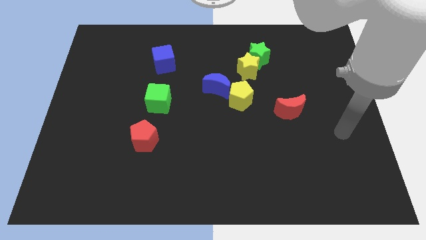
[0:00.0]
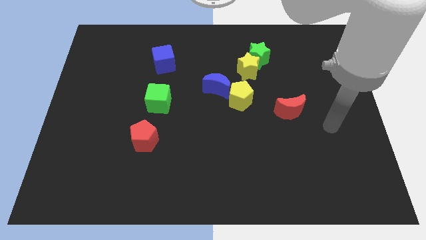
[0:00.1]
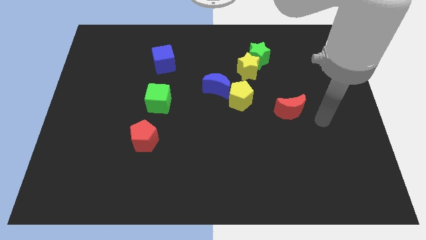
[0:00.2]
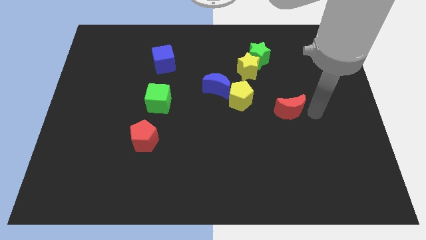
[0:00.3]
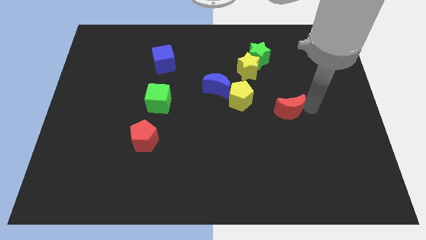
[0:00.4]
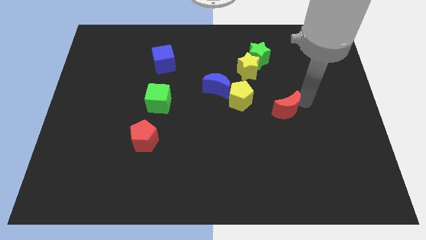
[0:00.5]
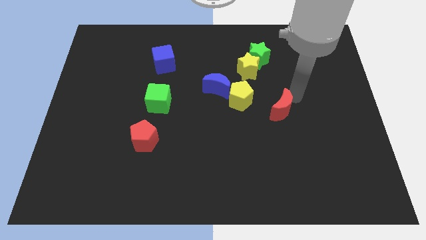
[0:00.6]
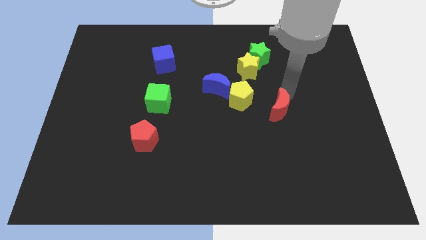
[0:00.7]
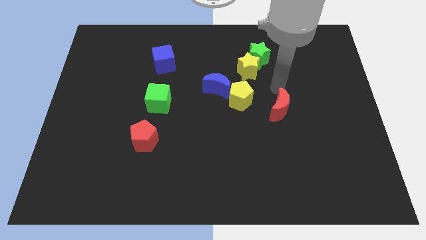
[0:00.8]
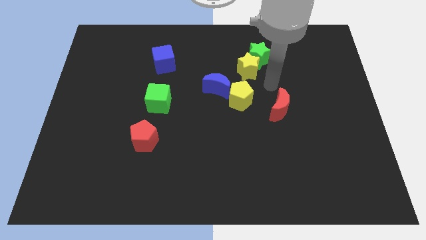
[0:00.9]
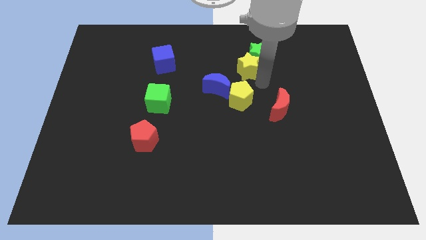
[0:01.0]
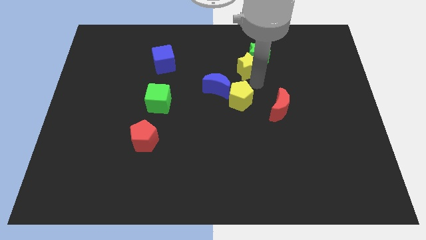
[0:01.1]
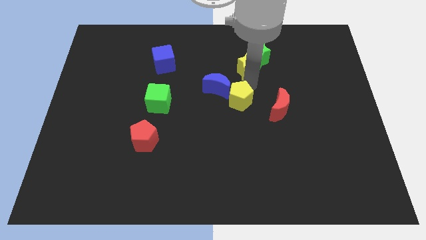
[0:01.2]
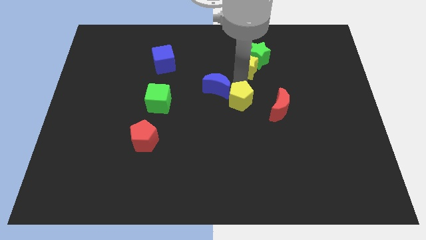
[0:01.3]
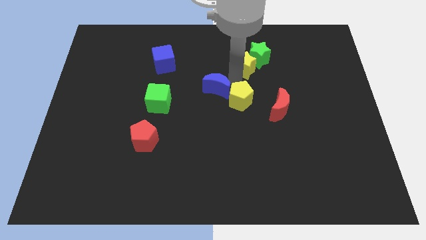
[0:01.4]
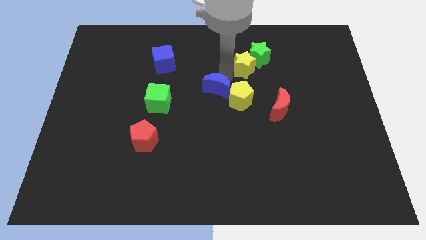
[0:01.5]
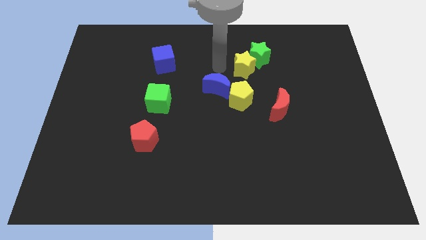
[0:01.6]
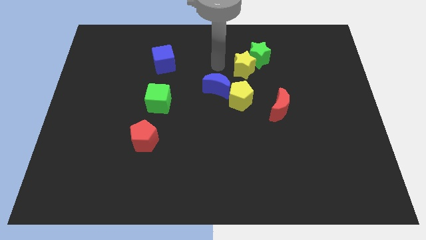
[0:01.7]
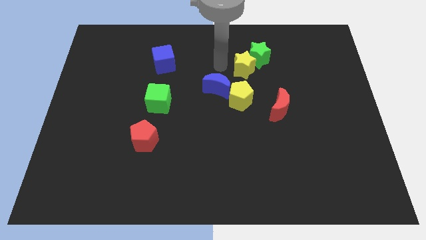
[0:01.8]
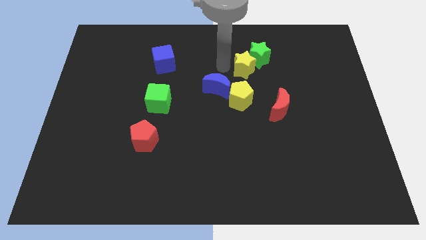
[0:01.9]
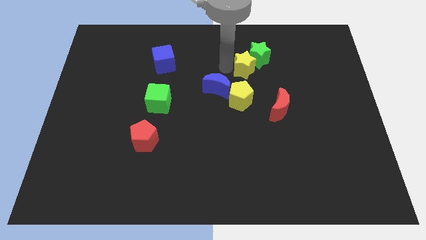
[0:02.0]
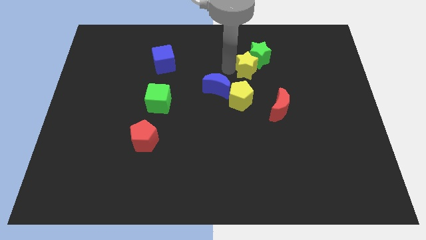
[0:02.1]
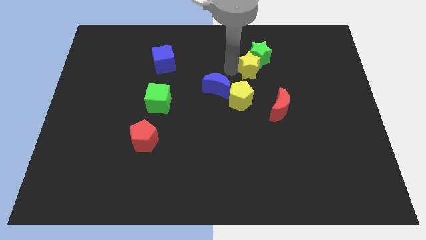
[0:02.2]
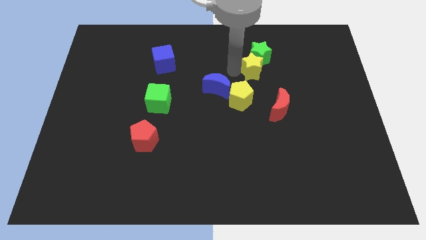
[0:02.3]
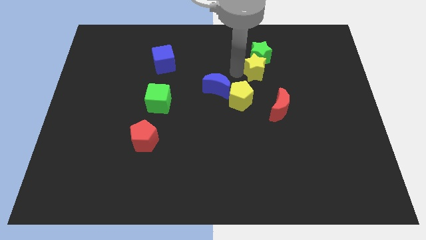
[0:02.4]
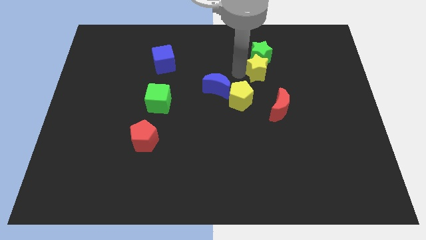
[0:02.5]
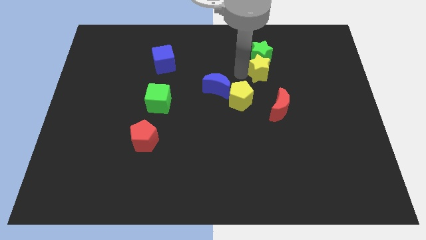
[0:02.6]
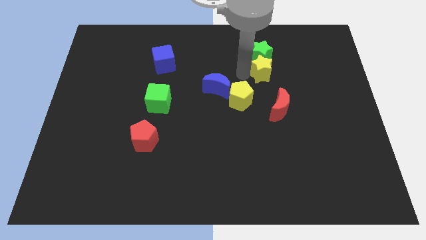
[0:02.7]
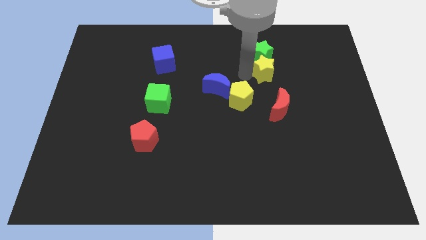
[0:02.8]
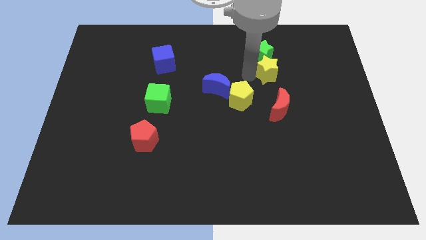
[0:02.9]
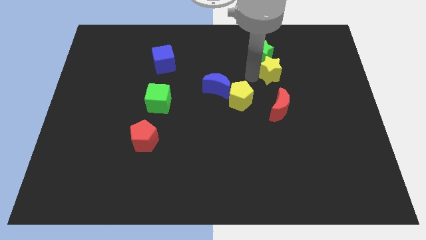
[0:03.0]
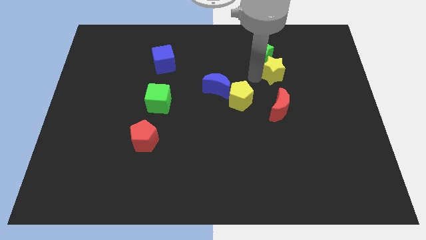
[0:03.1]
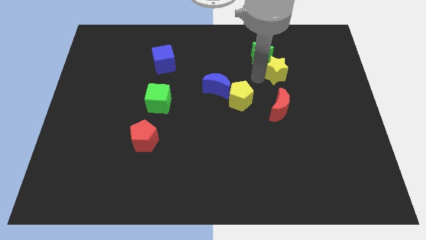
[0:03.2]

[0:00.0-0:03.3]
move the yellow star right a little bit

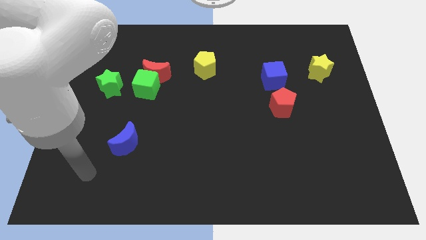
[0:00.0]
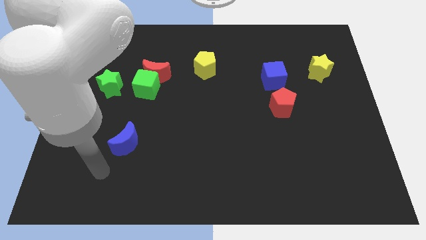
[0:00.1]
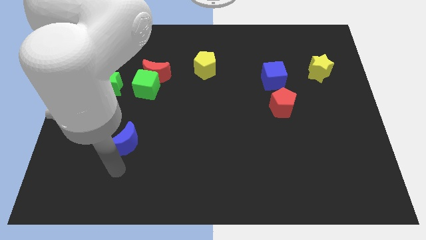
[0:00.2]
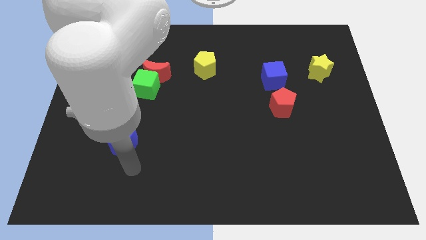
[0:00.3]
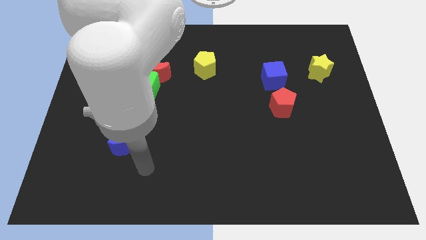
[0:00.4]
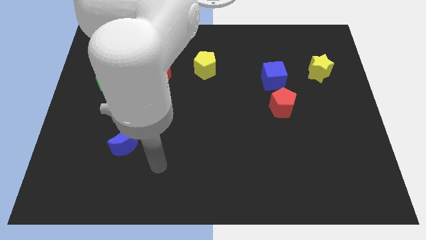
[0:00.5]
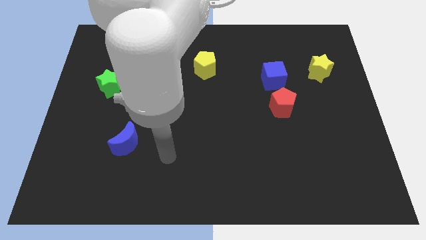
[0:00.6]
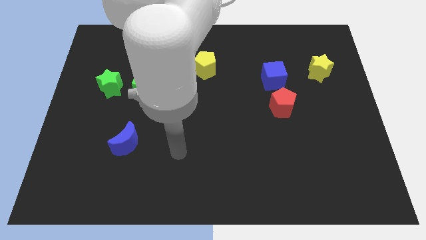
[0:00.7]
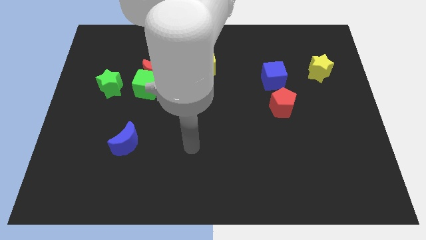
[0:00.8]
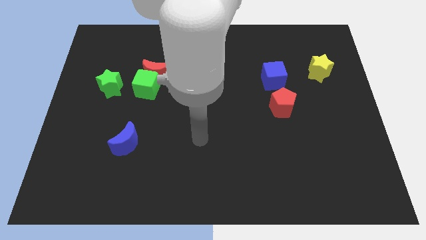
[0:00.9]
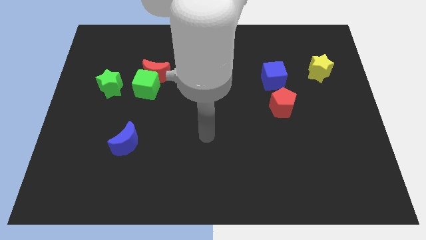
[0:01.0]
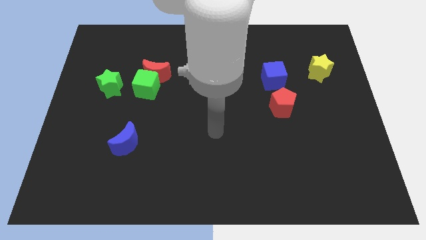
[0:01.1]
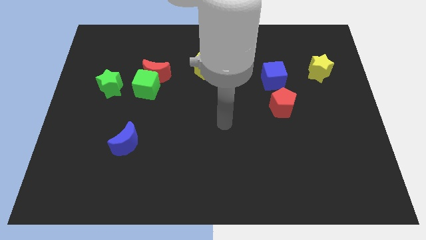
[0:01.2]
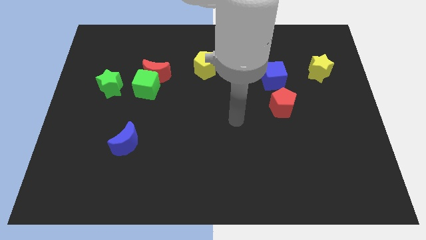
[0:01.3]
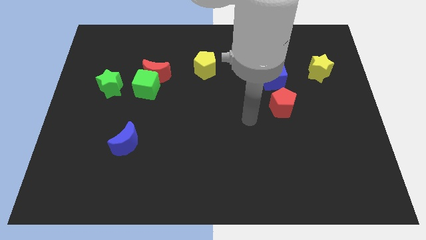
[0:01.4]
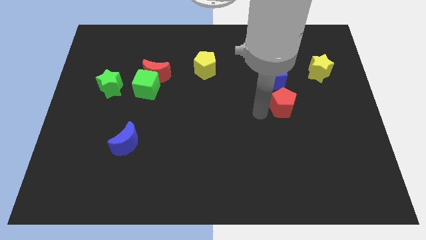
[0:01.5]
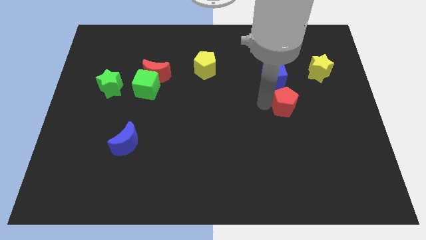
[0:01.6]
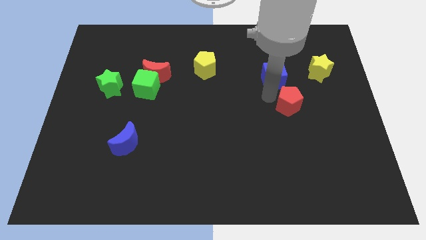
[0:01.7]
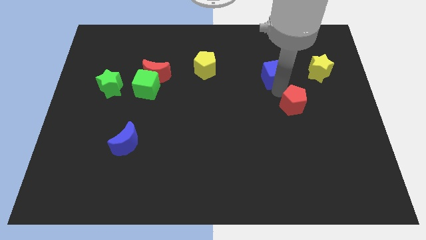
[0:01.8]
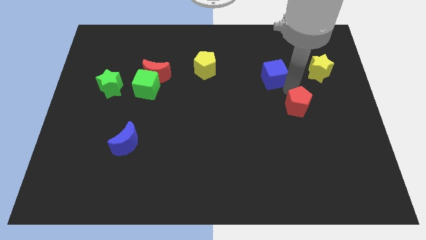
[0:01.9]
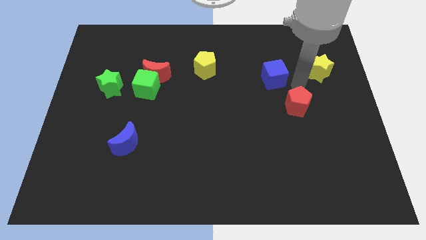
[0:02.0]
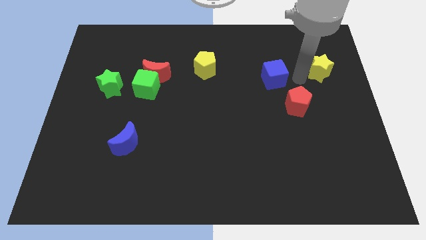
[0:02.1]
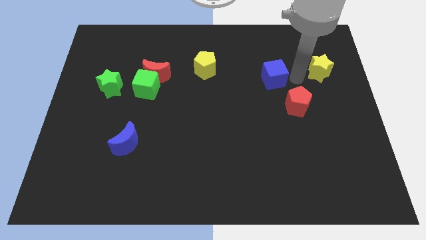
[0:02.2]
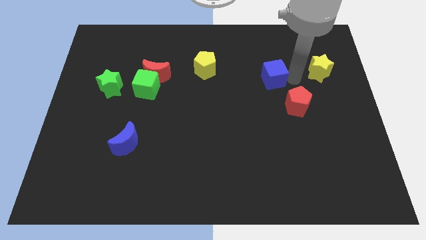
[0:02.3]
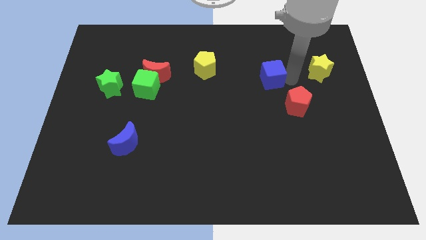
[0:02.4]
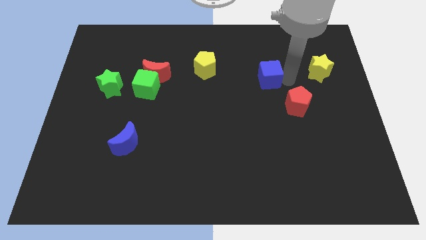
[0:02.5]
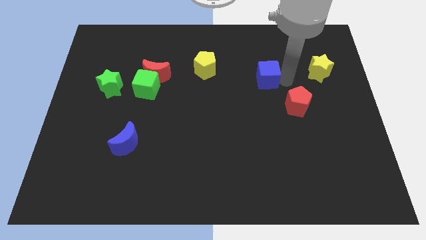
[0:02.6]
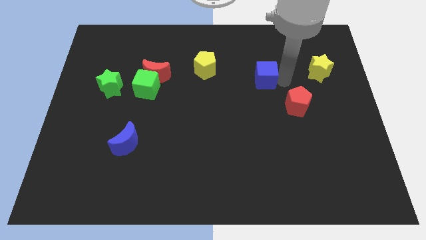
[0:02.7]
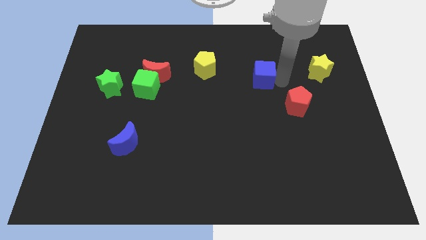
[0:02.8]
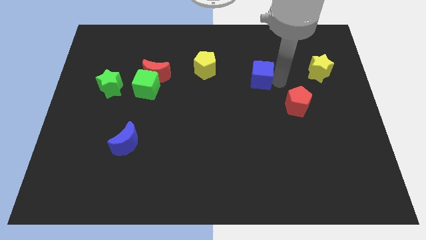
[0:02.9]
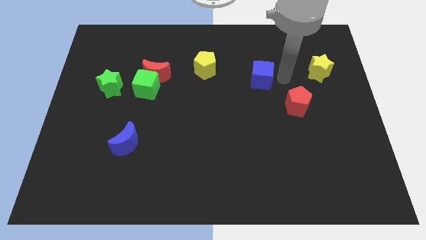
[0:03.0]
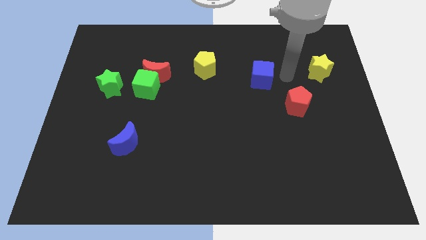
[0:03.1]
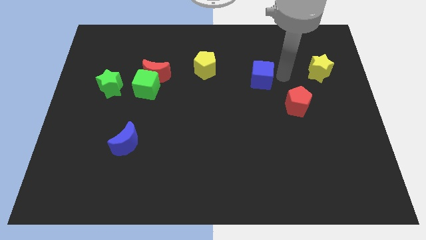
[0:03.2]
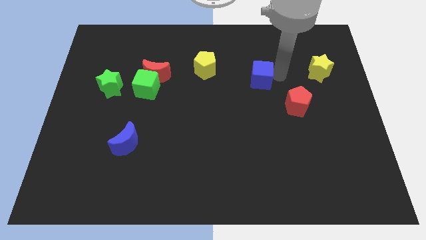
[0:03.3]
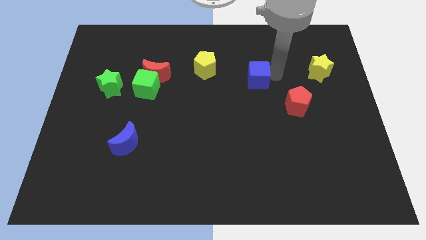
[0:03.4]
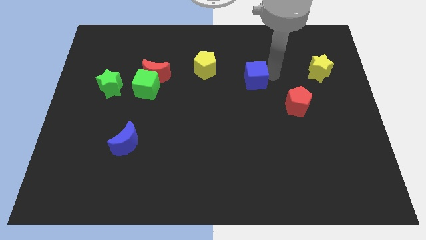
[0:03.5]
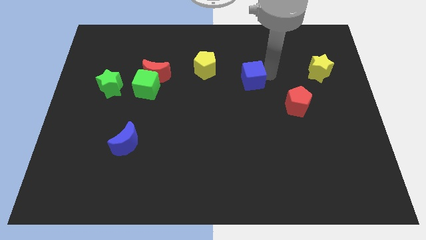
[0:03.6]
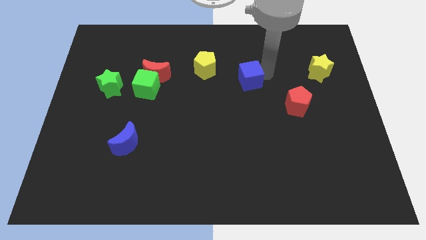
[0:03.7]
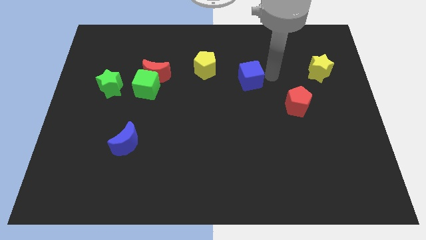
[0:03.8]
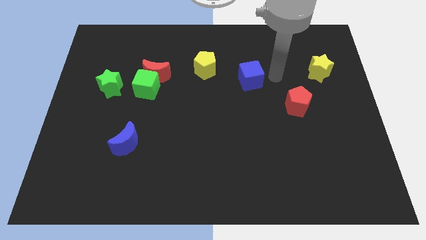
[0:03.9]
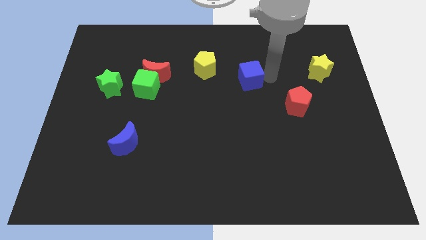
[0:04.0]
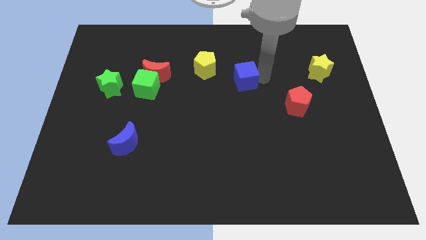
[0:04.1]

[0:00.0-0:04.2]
move the blue cube slightly left

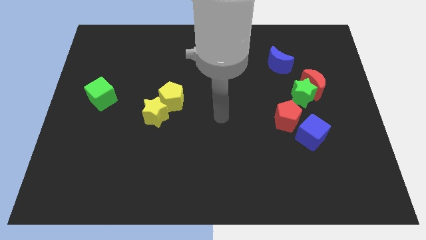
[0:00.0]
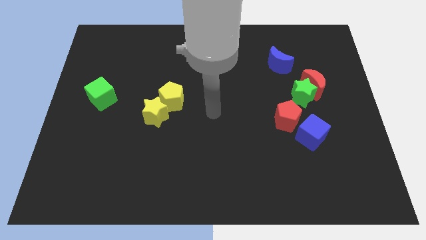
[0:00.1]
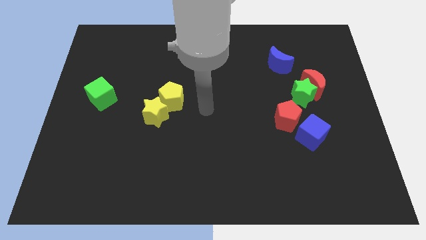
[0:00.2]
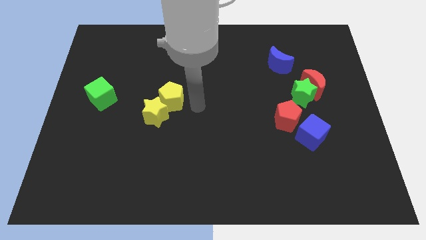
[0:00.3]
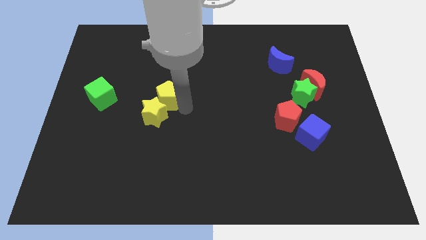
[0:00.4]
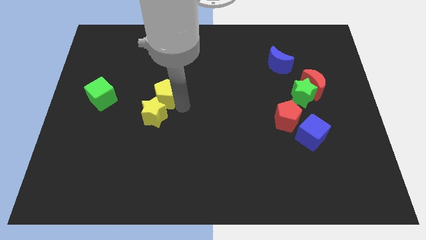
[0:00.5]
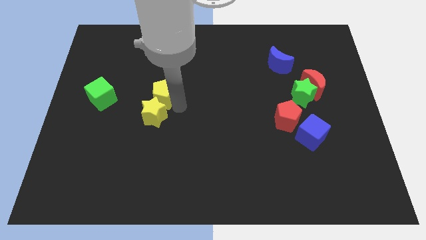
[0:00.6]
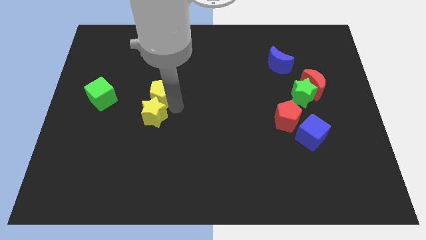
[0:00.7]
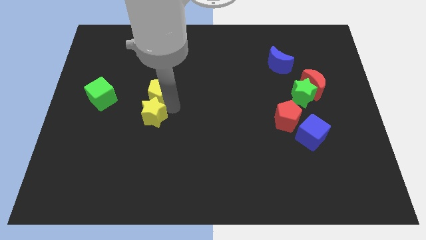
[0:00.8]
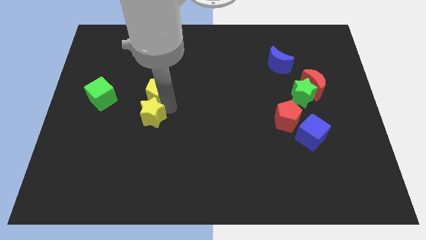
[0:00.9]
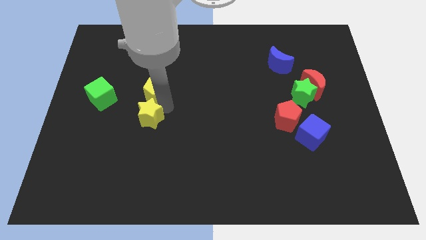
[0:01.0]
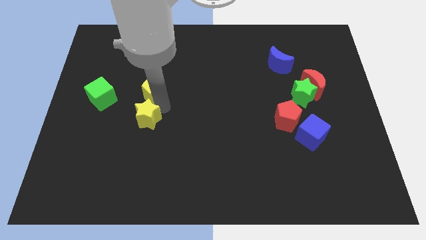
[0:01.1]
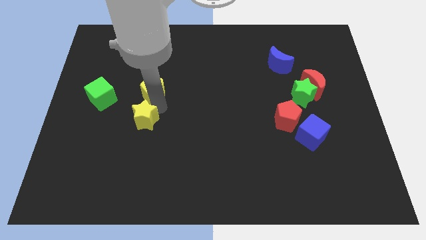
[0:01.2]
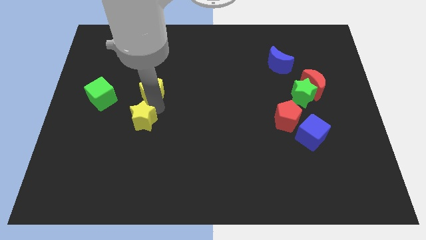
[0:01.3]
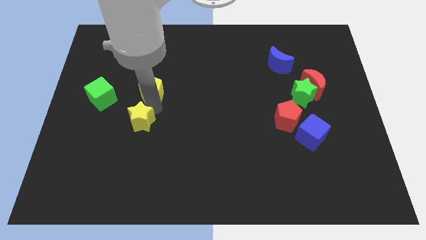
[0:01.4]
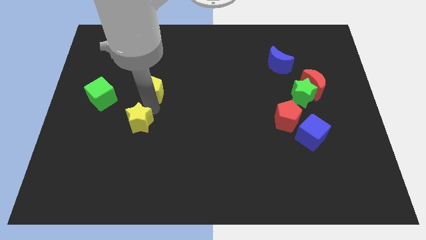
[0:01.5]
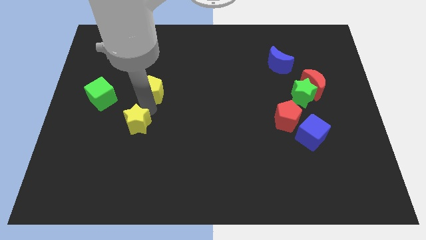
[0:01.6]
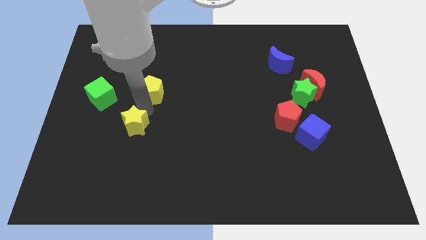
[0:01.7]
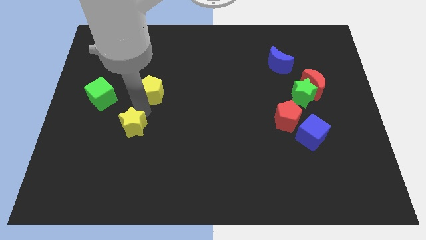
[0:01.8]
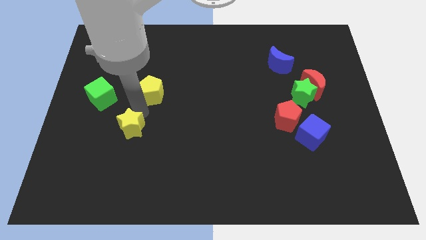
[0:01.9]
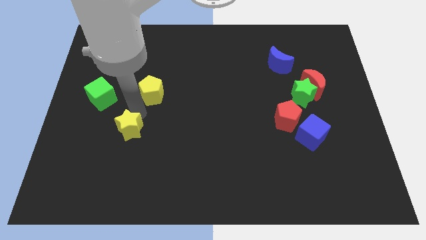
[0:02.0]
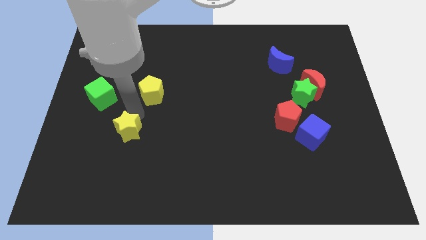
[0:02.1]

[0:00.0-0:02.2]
push the yellow star a bit down and to the left diagonally
